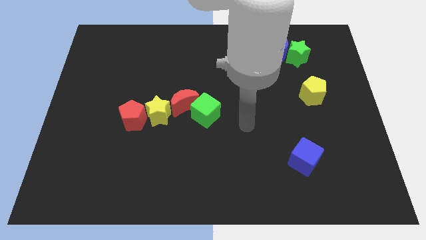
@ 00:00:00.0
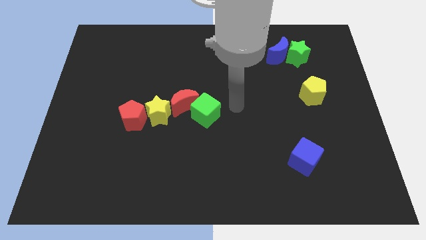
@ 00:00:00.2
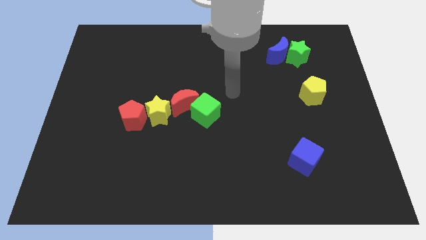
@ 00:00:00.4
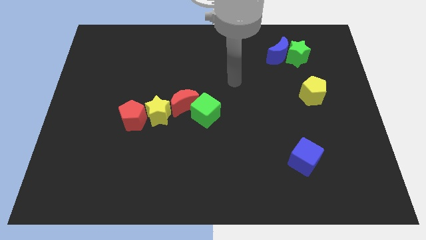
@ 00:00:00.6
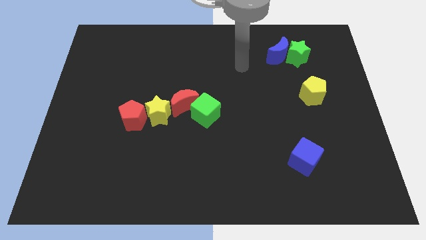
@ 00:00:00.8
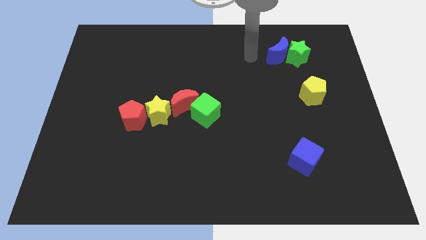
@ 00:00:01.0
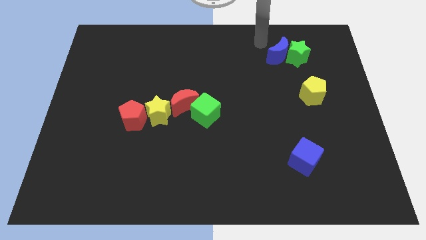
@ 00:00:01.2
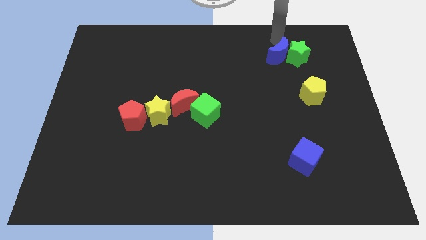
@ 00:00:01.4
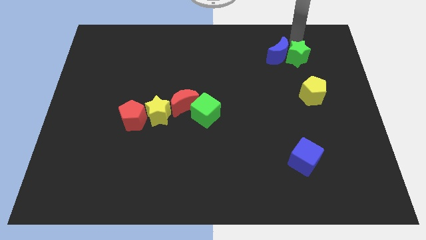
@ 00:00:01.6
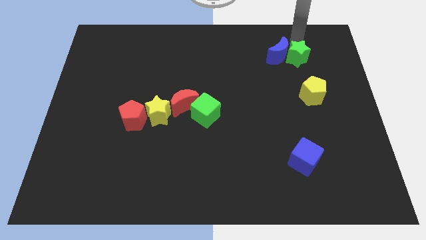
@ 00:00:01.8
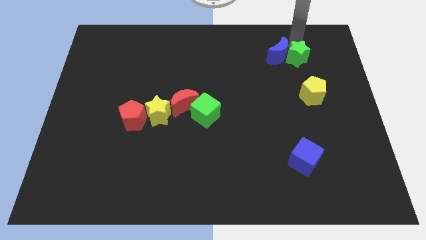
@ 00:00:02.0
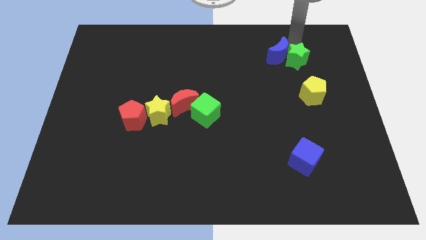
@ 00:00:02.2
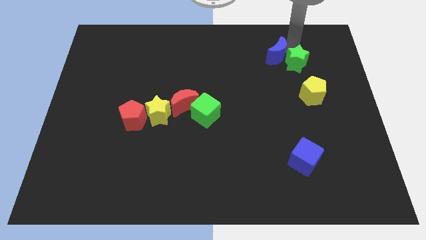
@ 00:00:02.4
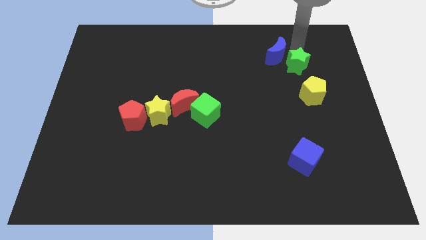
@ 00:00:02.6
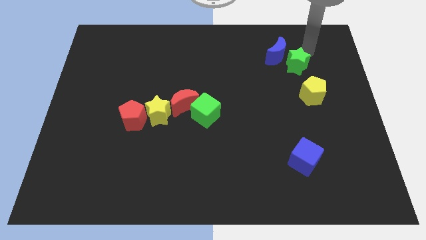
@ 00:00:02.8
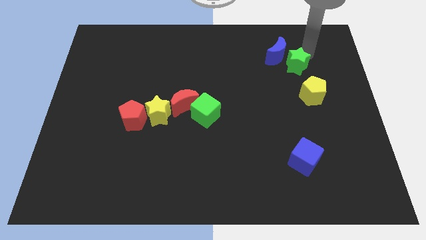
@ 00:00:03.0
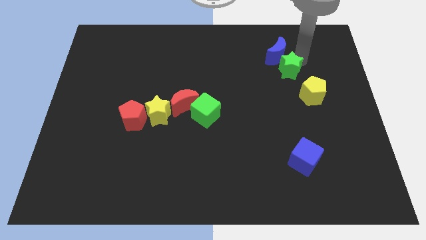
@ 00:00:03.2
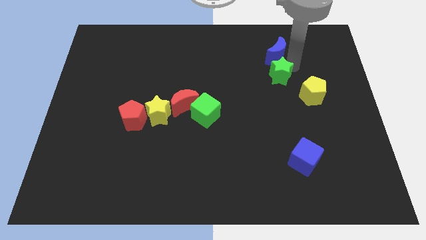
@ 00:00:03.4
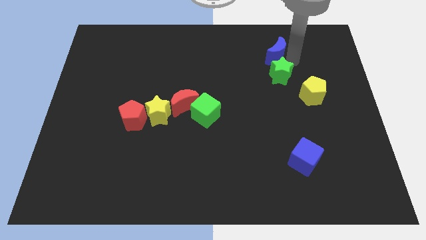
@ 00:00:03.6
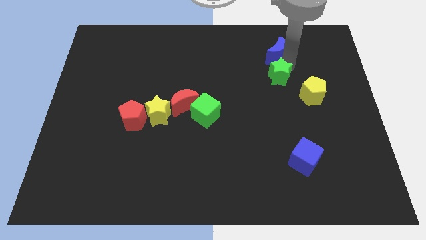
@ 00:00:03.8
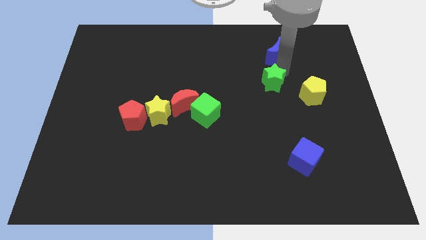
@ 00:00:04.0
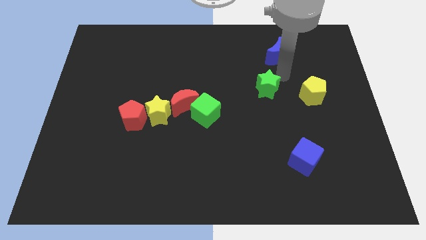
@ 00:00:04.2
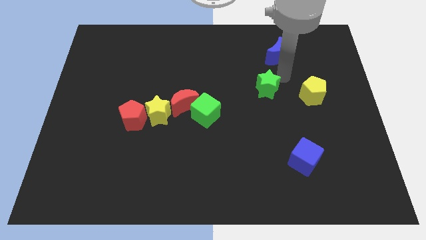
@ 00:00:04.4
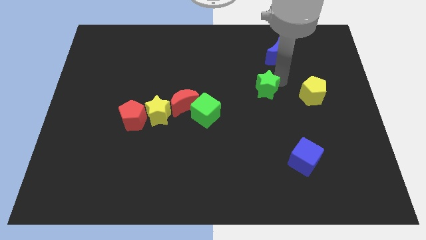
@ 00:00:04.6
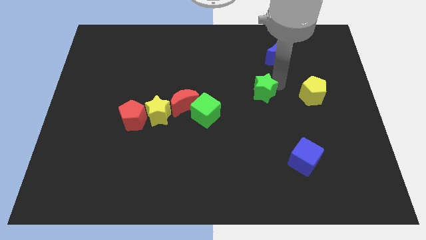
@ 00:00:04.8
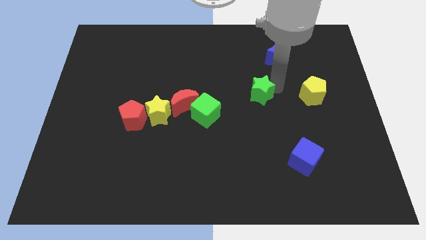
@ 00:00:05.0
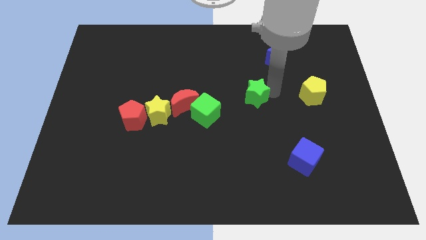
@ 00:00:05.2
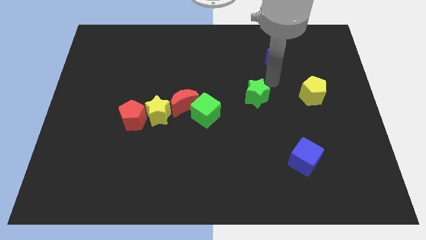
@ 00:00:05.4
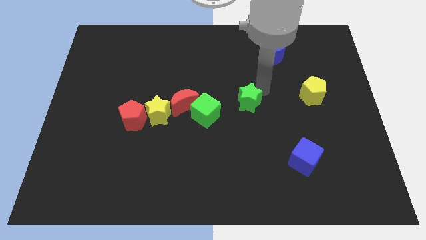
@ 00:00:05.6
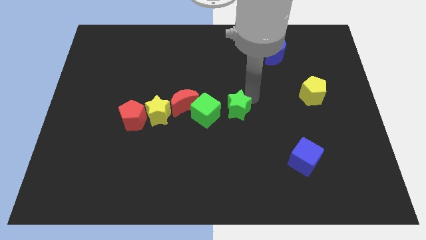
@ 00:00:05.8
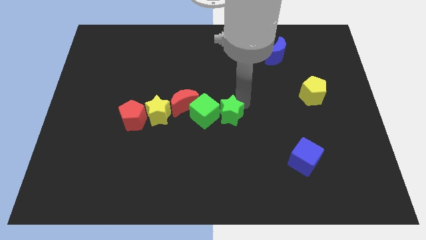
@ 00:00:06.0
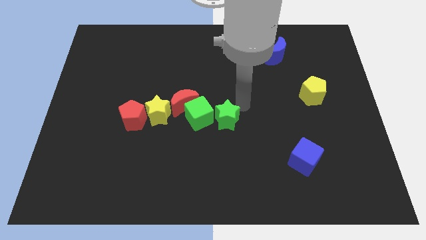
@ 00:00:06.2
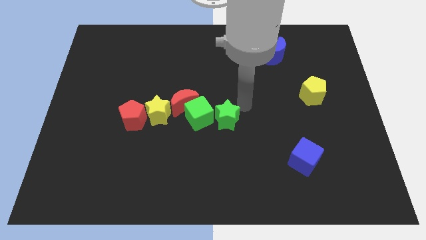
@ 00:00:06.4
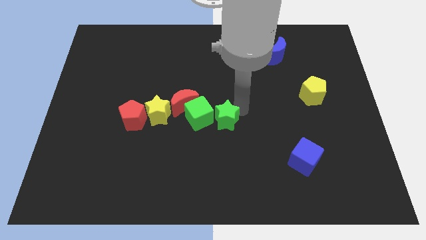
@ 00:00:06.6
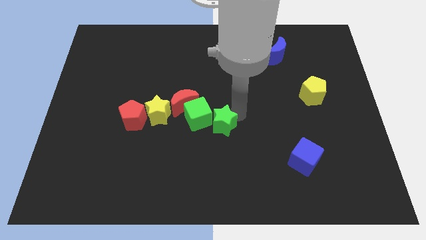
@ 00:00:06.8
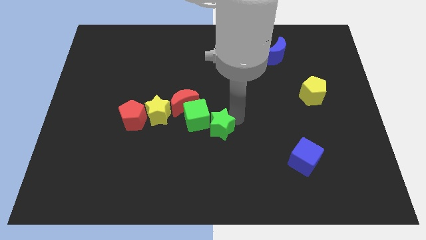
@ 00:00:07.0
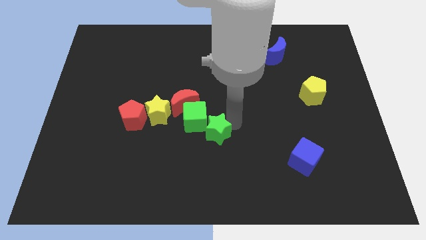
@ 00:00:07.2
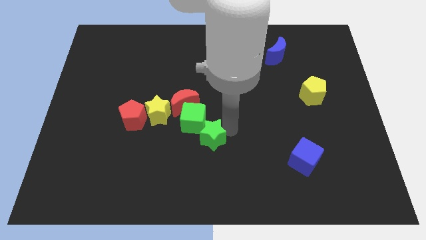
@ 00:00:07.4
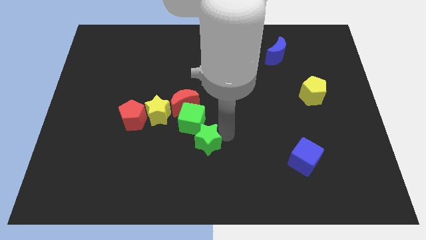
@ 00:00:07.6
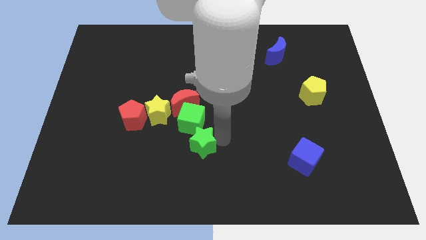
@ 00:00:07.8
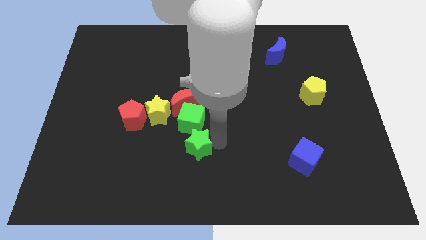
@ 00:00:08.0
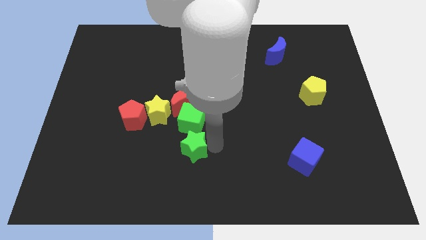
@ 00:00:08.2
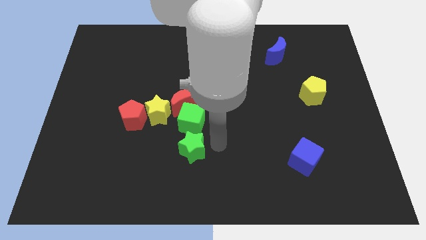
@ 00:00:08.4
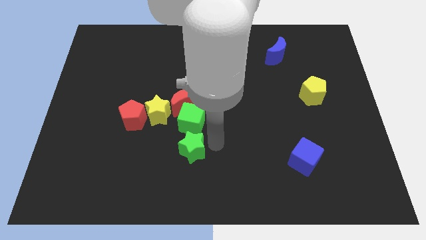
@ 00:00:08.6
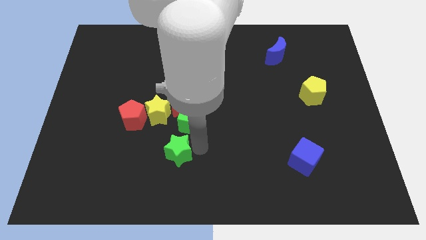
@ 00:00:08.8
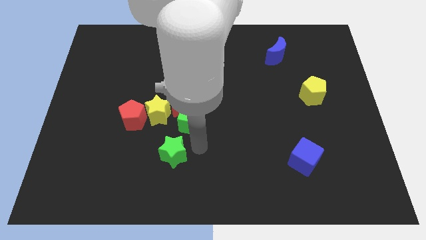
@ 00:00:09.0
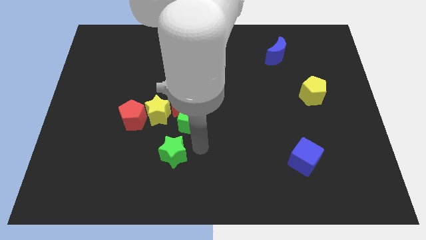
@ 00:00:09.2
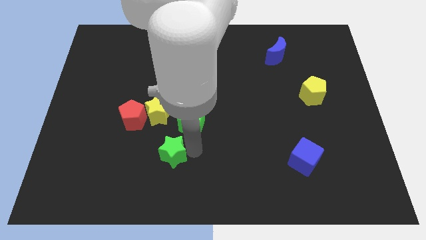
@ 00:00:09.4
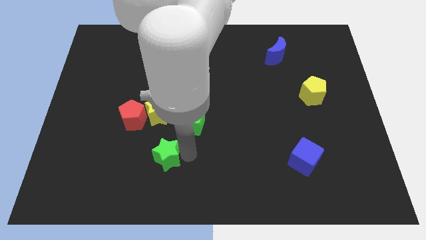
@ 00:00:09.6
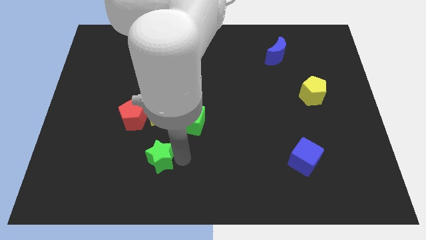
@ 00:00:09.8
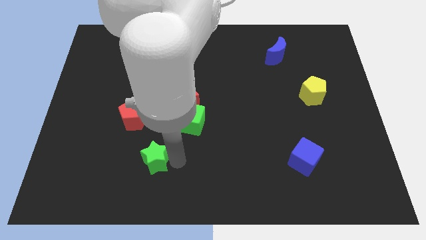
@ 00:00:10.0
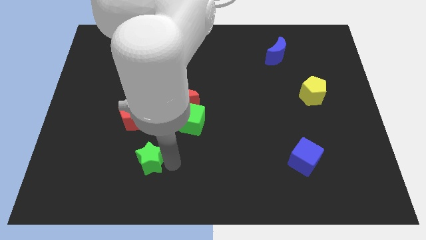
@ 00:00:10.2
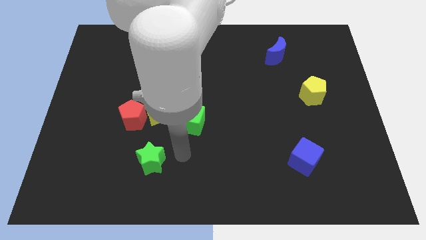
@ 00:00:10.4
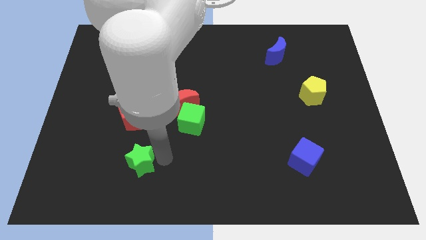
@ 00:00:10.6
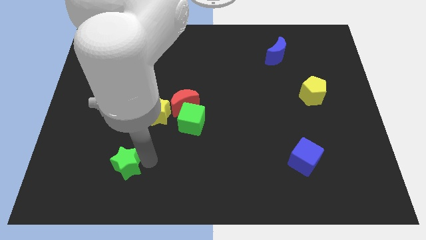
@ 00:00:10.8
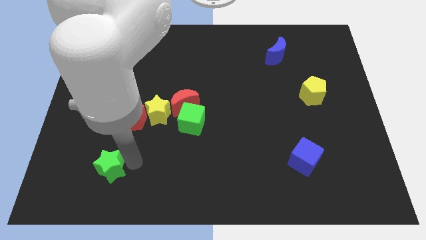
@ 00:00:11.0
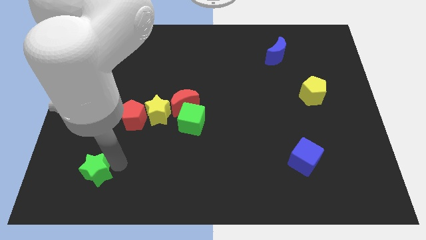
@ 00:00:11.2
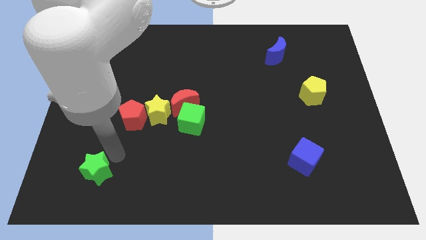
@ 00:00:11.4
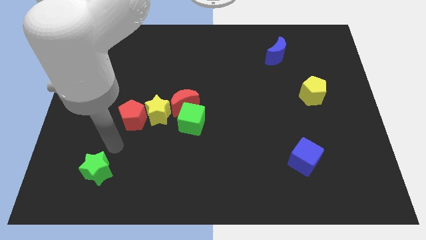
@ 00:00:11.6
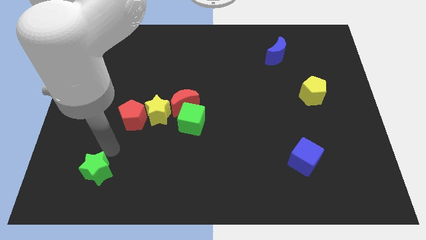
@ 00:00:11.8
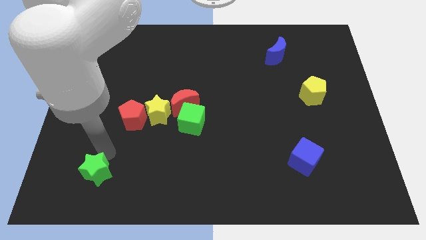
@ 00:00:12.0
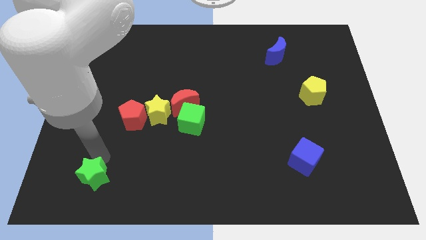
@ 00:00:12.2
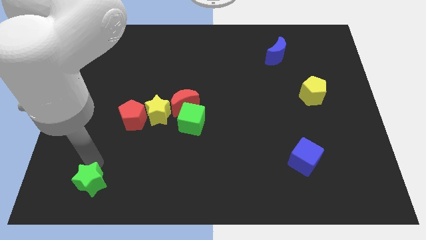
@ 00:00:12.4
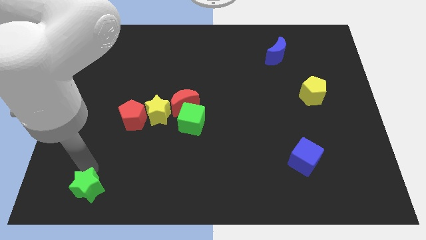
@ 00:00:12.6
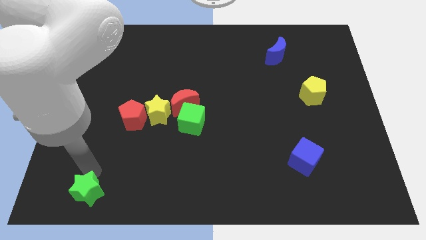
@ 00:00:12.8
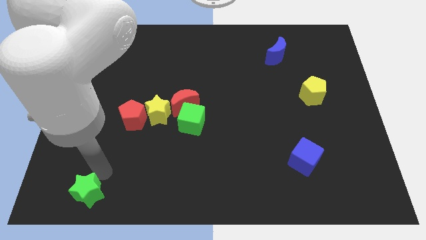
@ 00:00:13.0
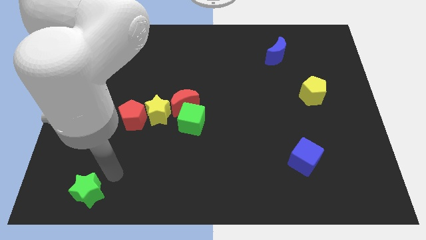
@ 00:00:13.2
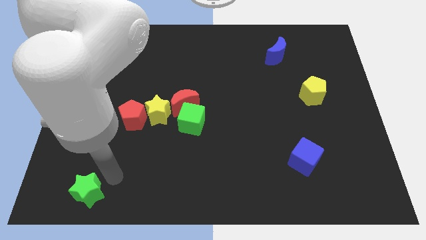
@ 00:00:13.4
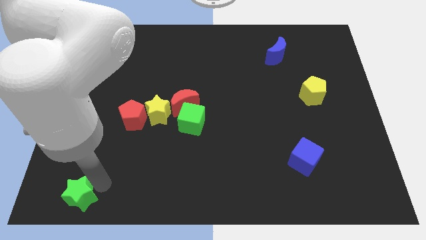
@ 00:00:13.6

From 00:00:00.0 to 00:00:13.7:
move the green star to the bottom left

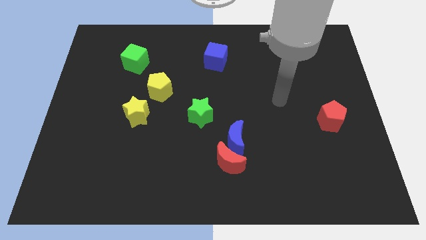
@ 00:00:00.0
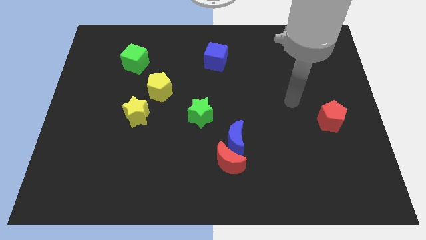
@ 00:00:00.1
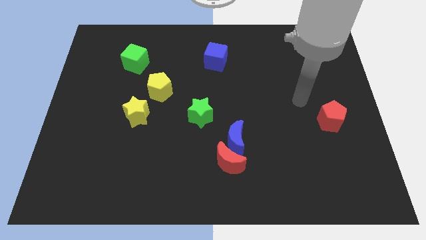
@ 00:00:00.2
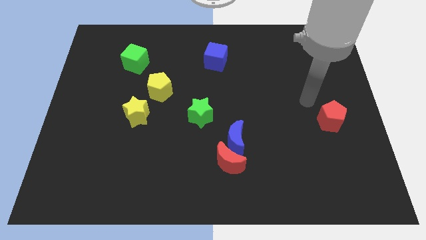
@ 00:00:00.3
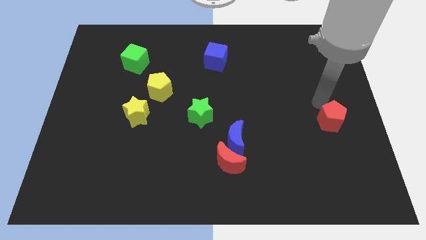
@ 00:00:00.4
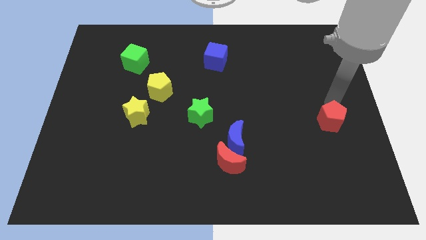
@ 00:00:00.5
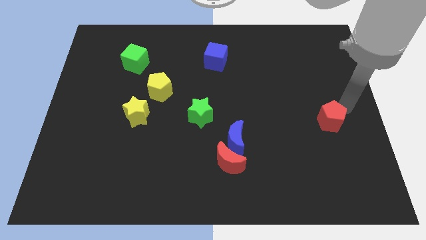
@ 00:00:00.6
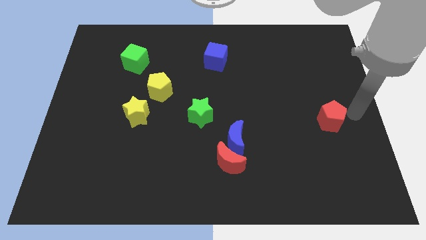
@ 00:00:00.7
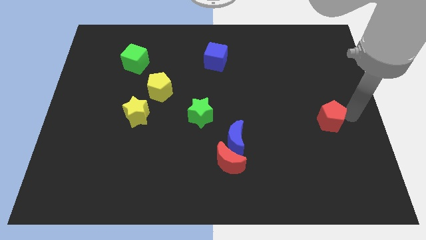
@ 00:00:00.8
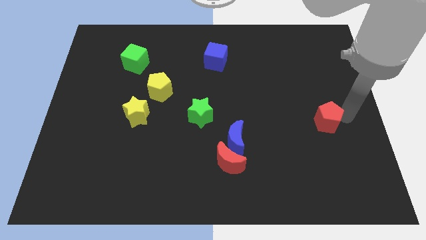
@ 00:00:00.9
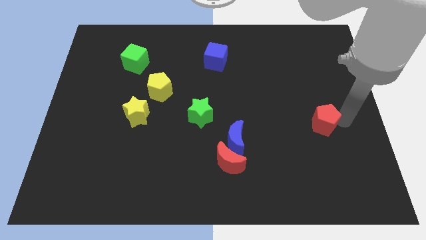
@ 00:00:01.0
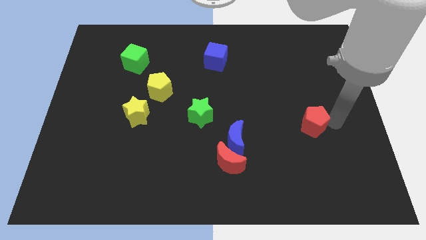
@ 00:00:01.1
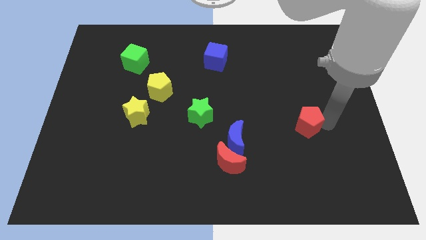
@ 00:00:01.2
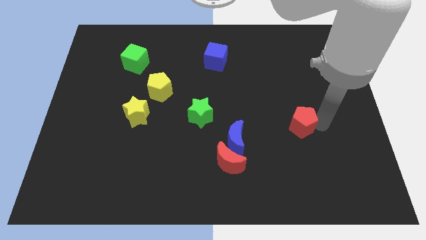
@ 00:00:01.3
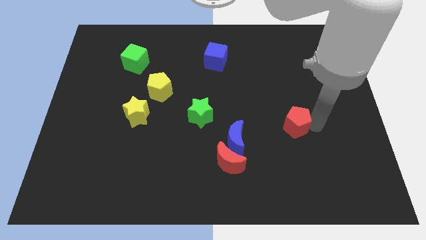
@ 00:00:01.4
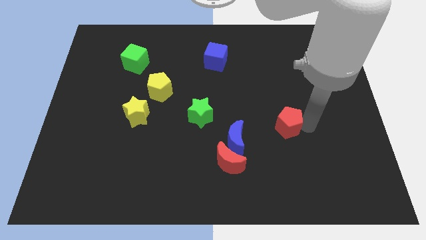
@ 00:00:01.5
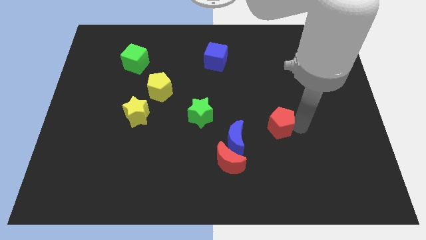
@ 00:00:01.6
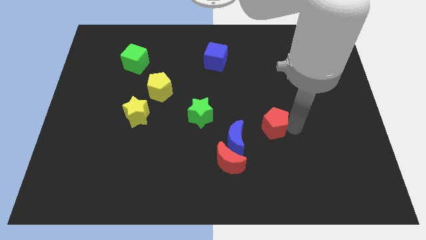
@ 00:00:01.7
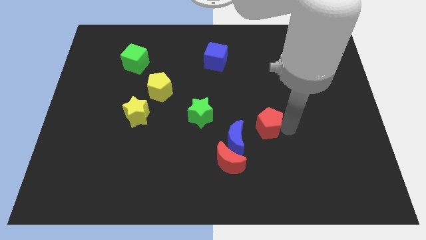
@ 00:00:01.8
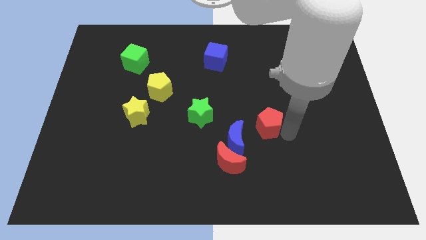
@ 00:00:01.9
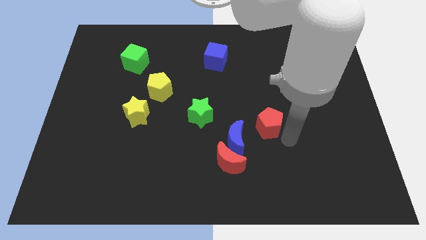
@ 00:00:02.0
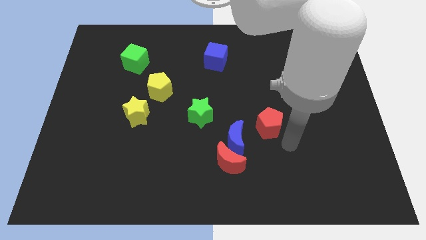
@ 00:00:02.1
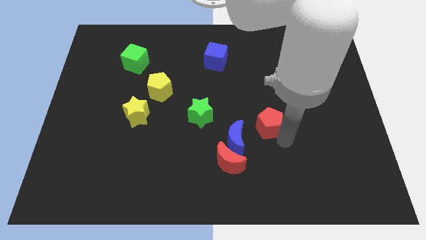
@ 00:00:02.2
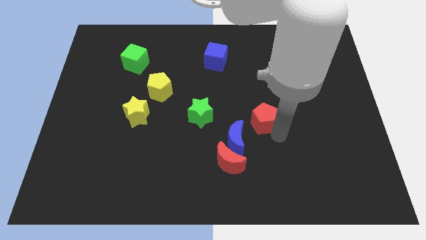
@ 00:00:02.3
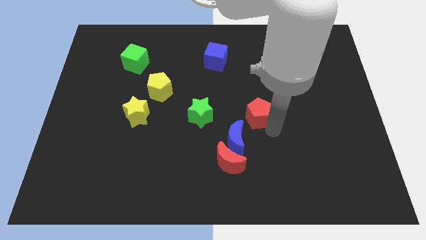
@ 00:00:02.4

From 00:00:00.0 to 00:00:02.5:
push the red pentagon to the center
